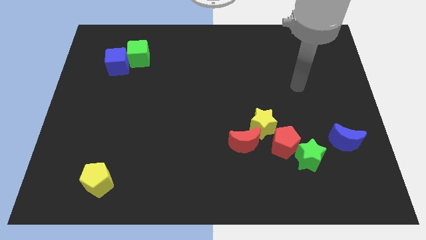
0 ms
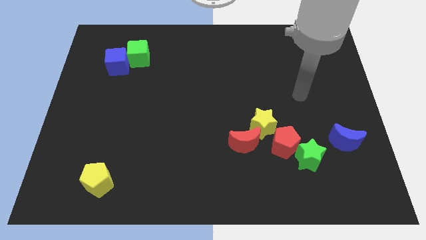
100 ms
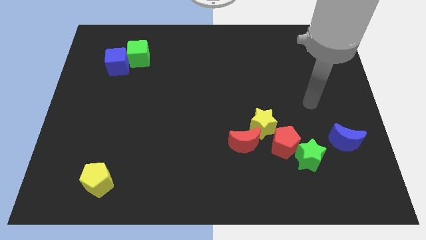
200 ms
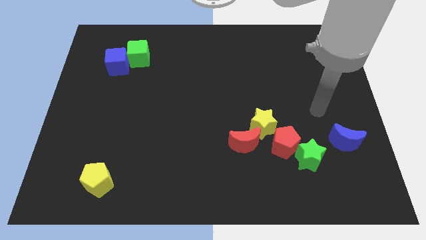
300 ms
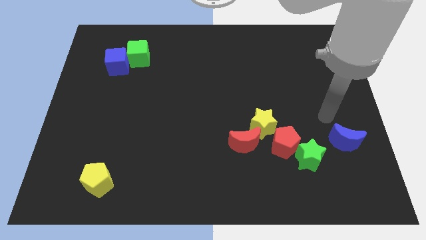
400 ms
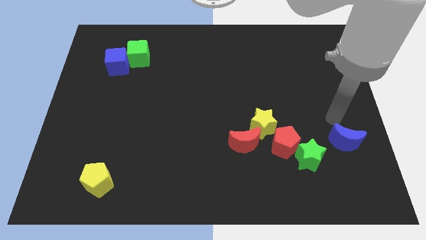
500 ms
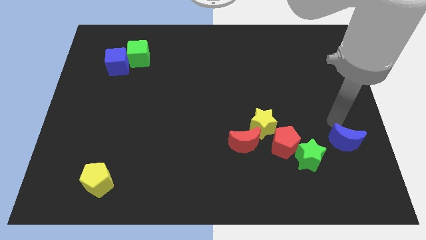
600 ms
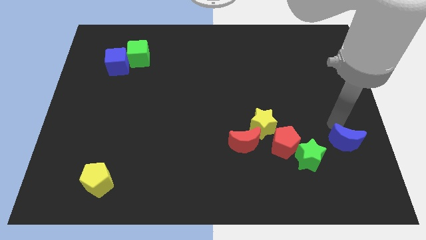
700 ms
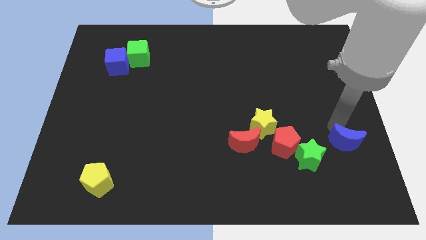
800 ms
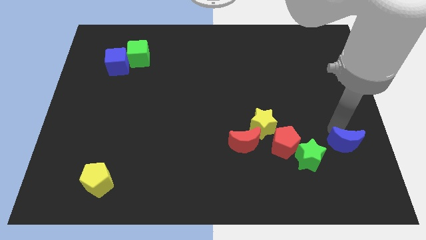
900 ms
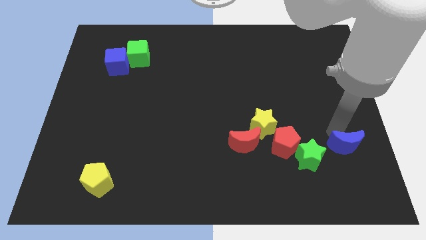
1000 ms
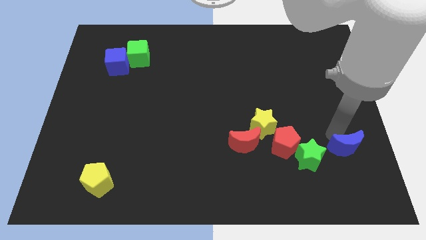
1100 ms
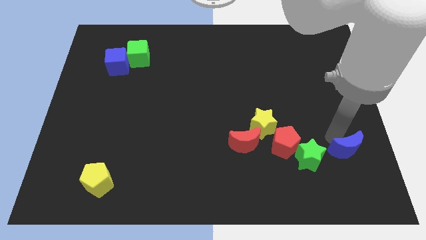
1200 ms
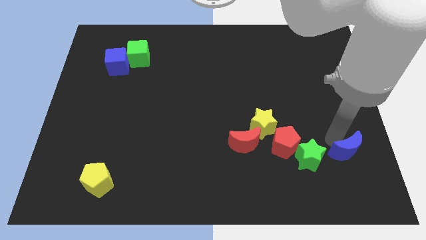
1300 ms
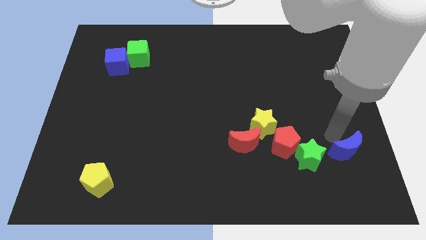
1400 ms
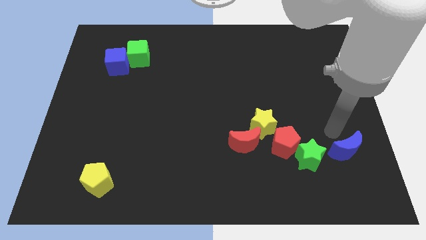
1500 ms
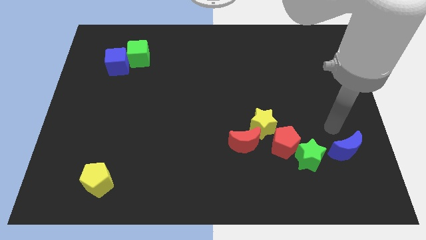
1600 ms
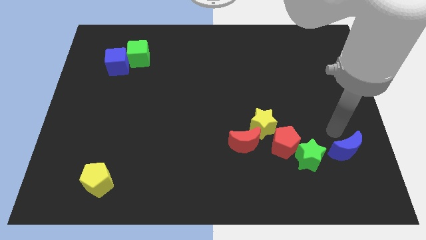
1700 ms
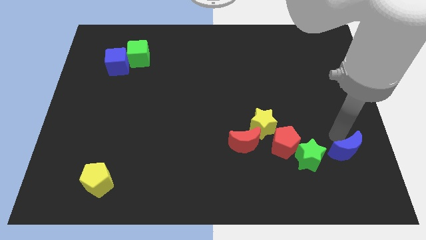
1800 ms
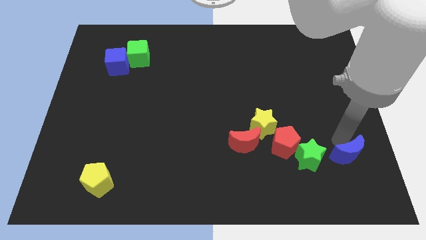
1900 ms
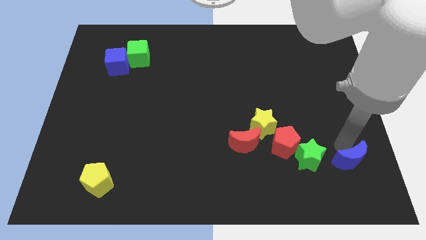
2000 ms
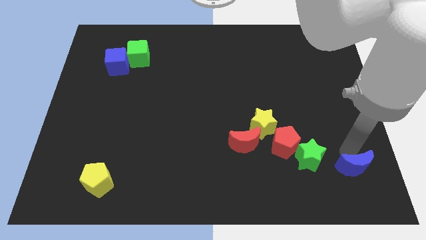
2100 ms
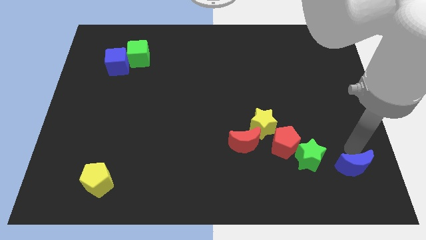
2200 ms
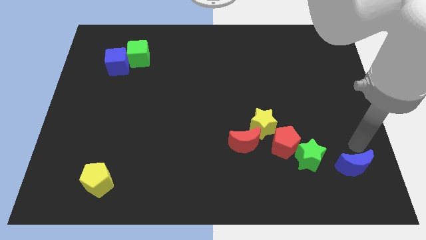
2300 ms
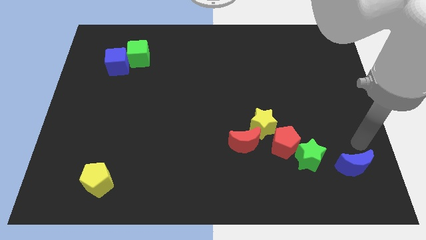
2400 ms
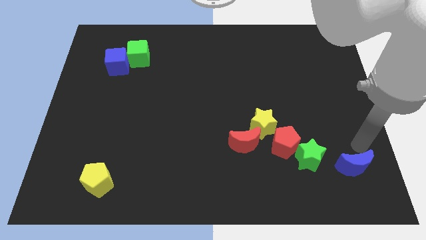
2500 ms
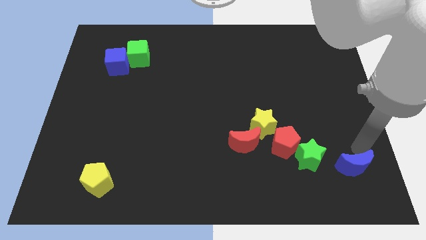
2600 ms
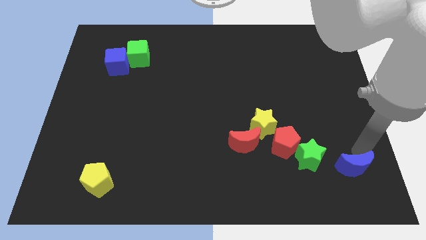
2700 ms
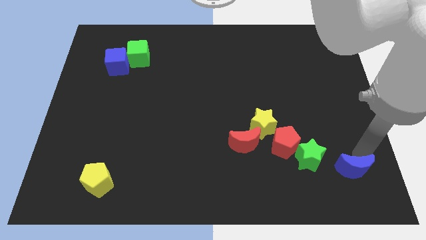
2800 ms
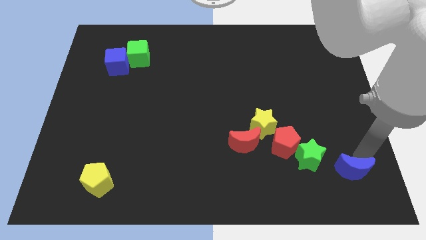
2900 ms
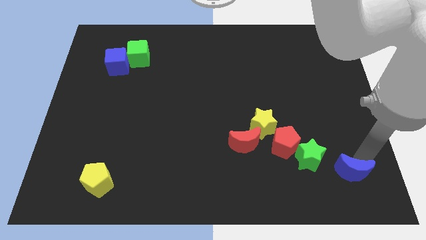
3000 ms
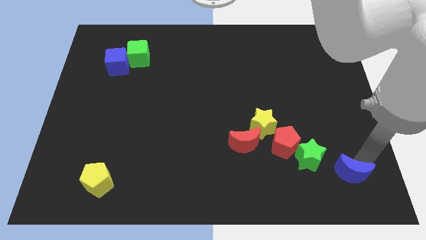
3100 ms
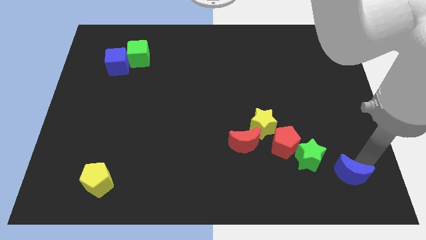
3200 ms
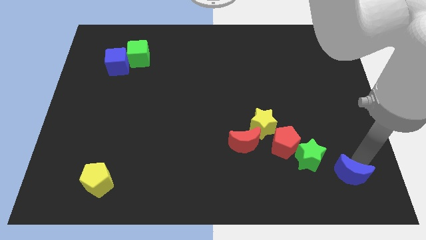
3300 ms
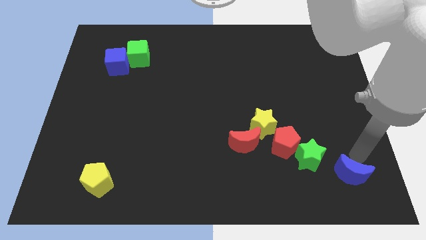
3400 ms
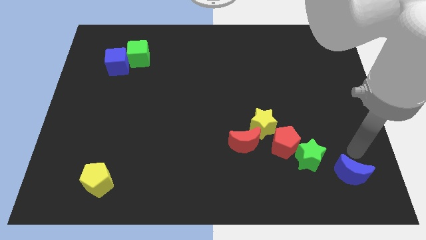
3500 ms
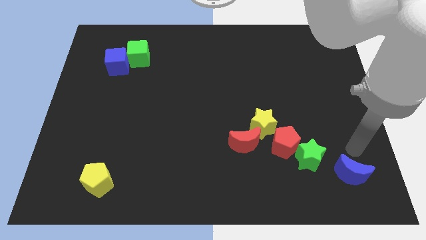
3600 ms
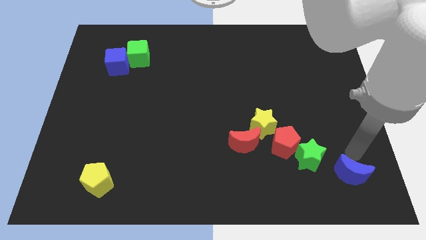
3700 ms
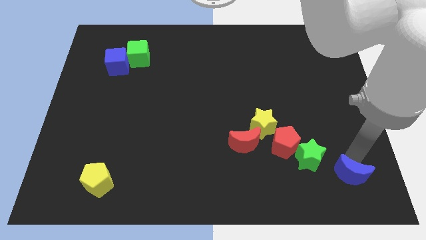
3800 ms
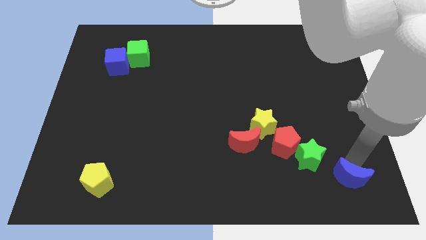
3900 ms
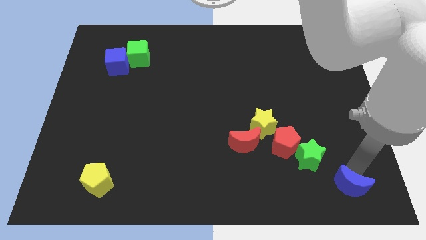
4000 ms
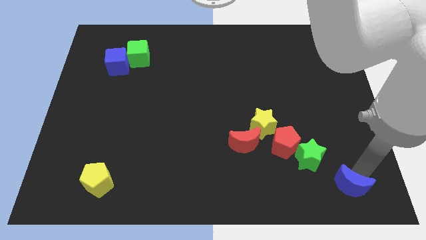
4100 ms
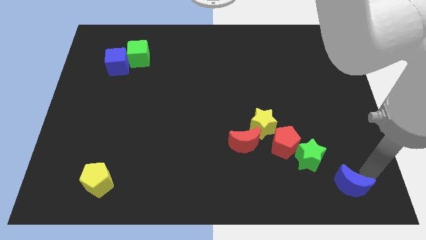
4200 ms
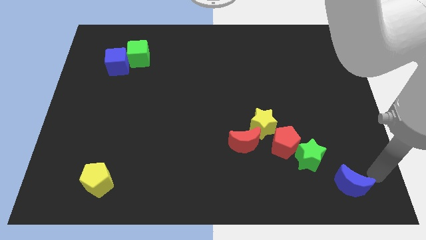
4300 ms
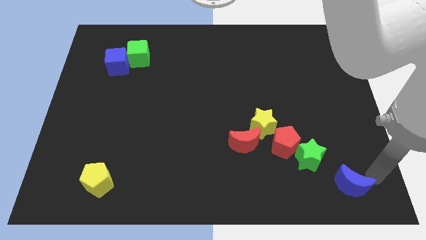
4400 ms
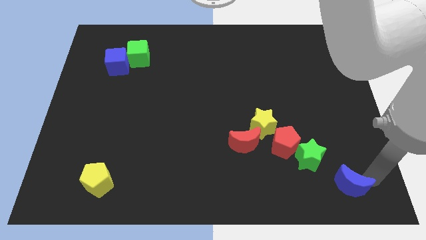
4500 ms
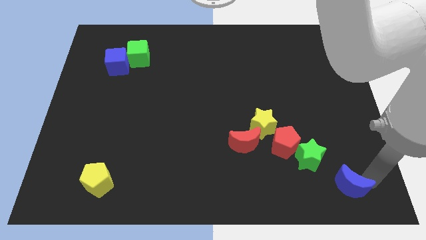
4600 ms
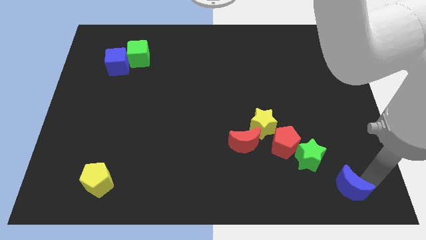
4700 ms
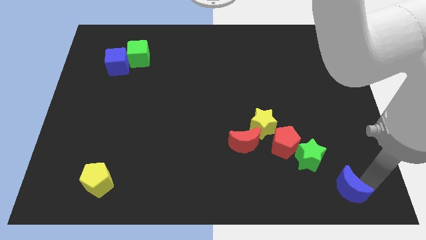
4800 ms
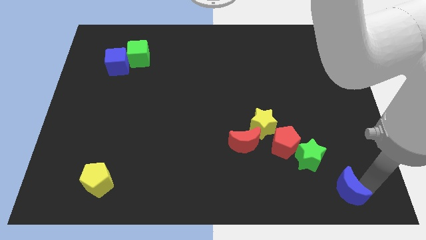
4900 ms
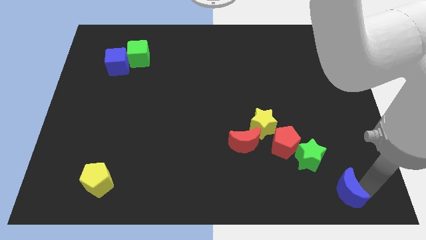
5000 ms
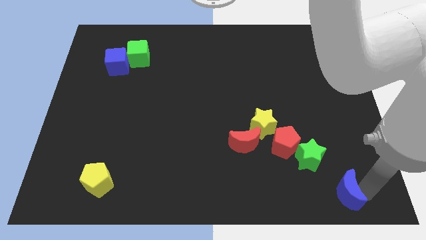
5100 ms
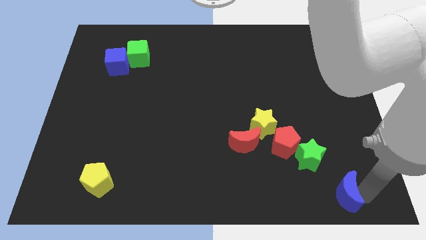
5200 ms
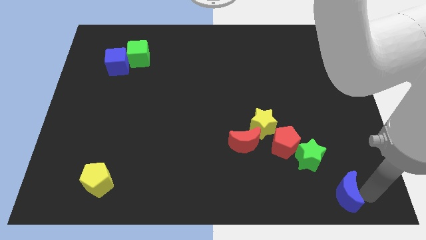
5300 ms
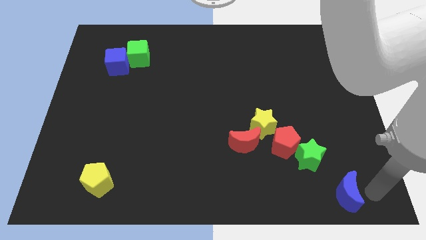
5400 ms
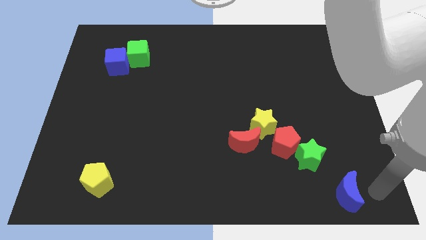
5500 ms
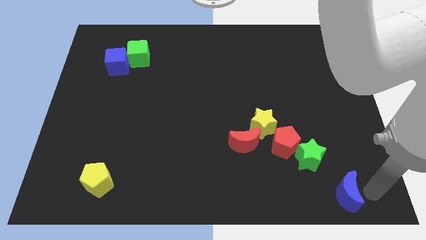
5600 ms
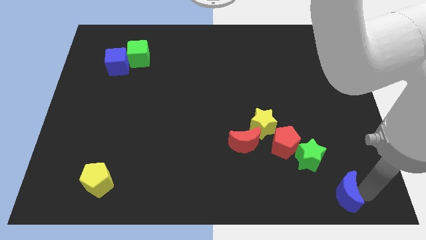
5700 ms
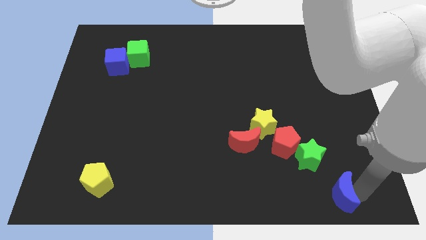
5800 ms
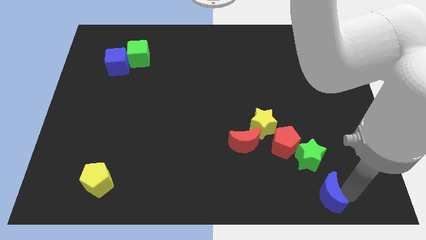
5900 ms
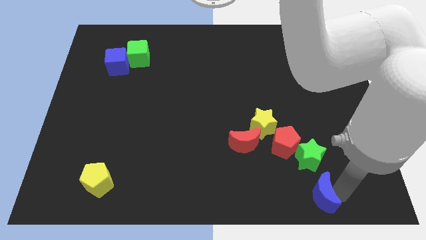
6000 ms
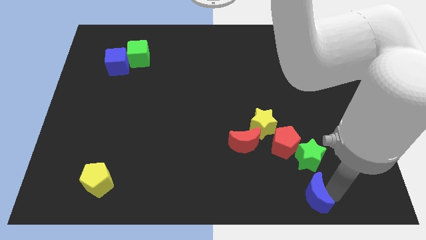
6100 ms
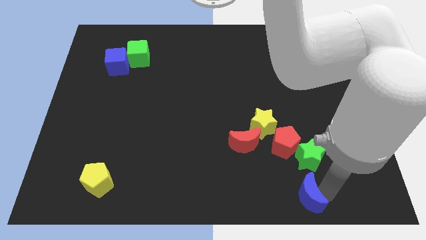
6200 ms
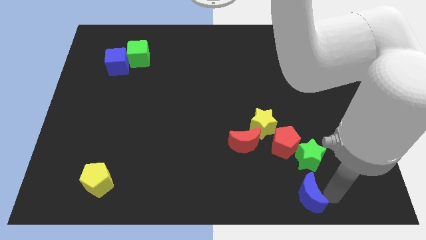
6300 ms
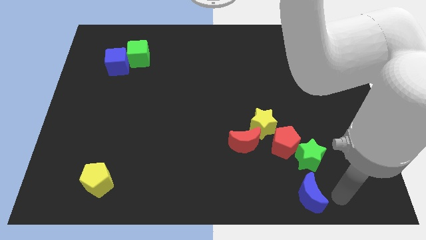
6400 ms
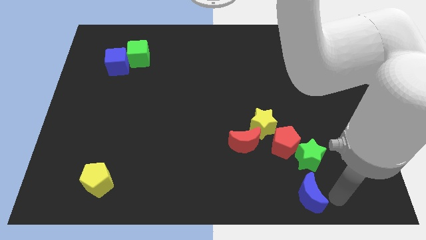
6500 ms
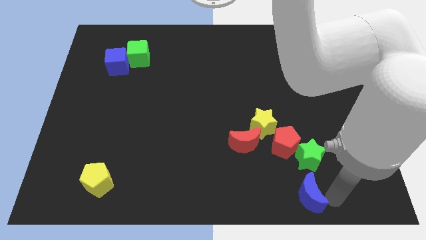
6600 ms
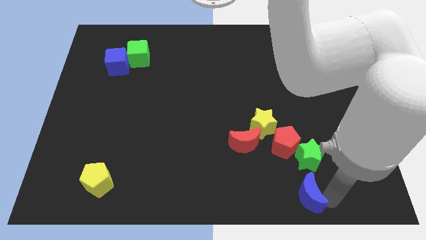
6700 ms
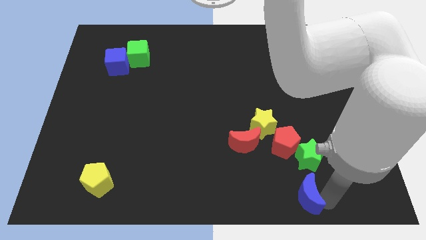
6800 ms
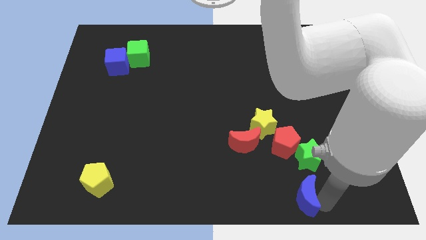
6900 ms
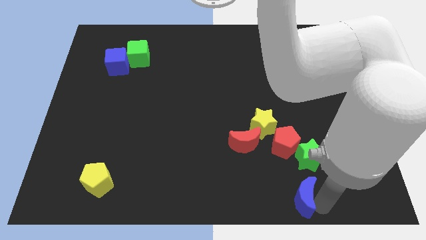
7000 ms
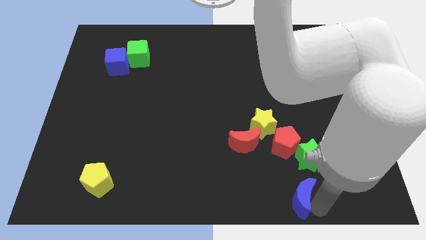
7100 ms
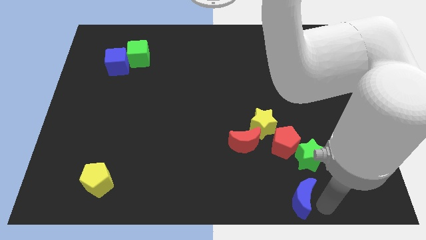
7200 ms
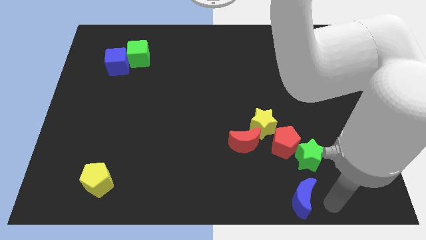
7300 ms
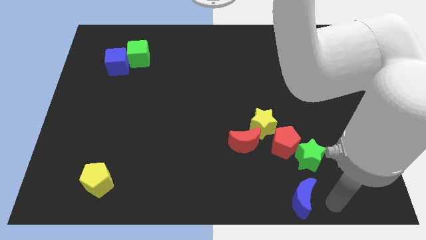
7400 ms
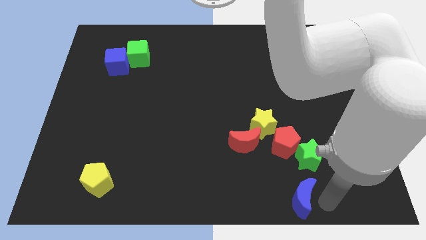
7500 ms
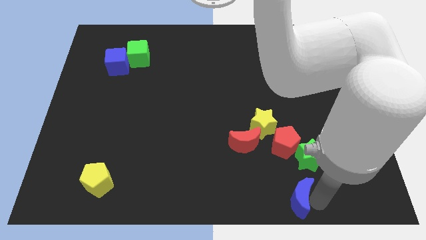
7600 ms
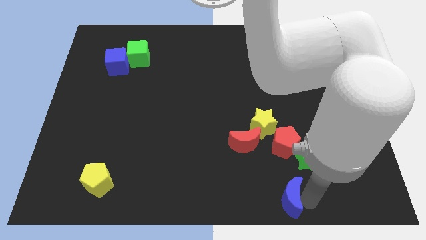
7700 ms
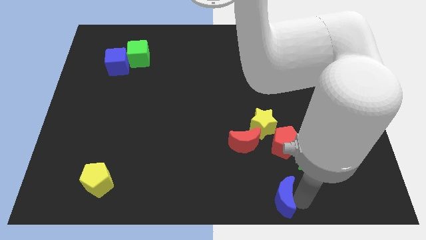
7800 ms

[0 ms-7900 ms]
move the blue moon to the bottom side
